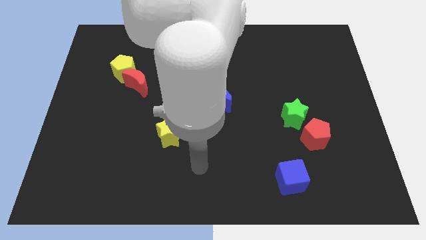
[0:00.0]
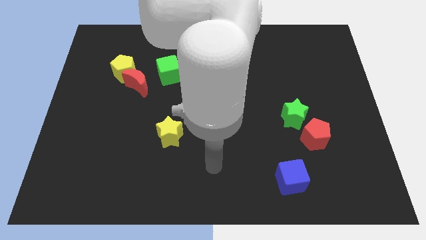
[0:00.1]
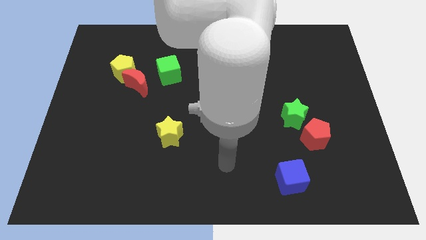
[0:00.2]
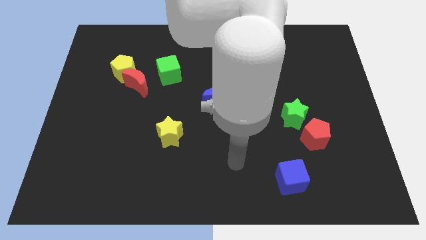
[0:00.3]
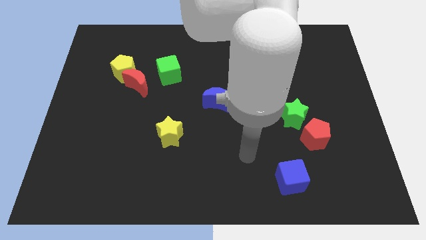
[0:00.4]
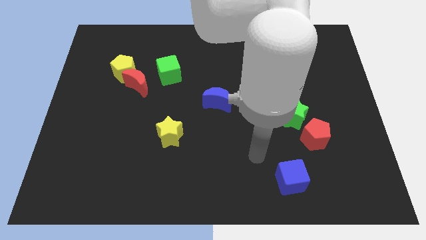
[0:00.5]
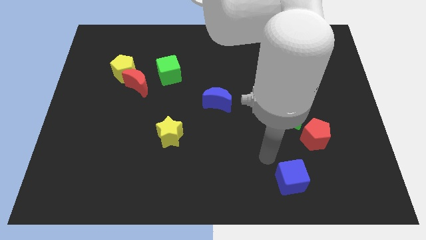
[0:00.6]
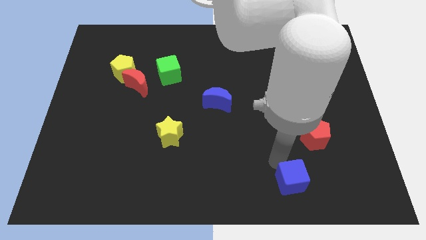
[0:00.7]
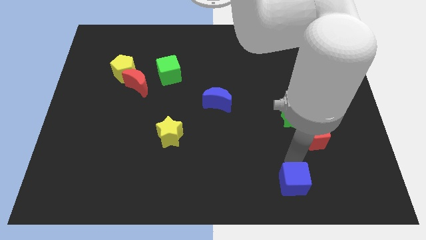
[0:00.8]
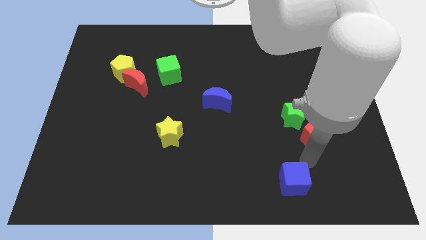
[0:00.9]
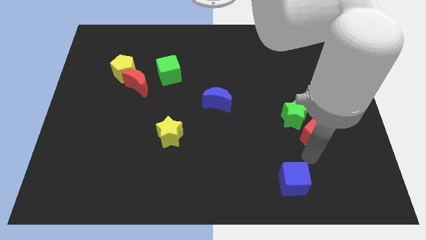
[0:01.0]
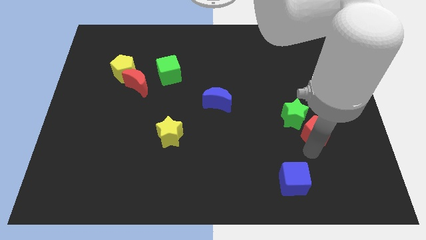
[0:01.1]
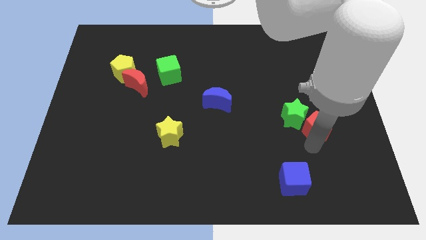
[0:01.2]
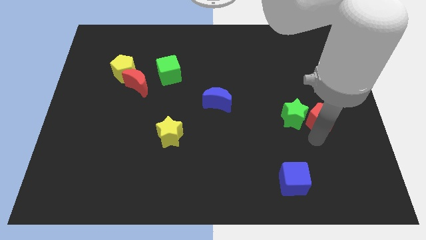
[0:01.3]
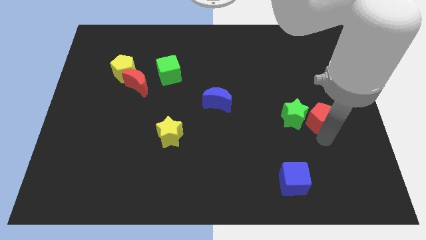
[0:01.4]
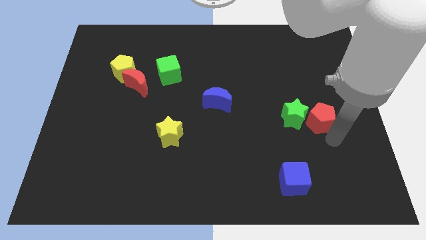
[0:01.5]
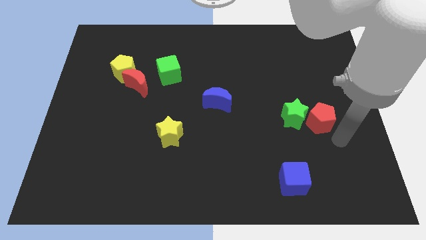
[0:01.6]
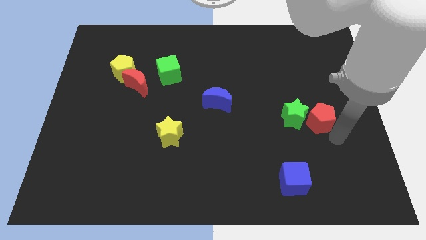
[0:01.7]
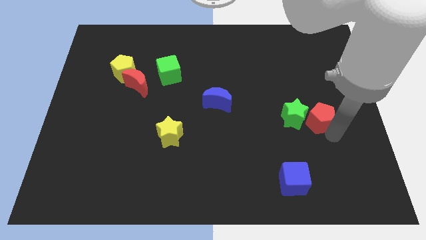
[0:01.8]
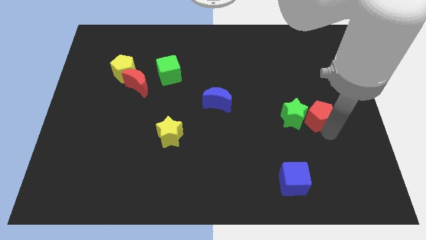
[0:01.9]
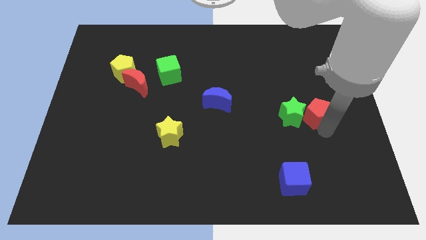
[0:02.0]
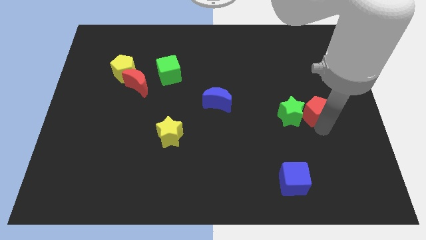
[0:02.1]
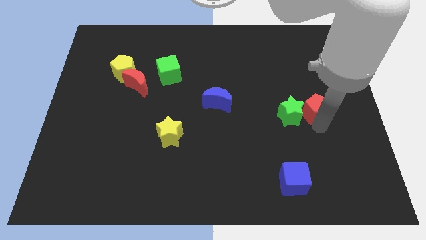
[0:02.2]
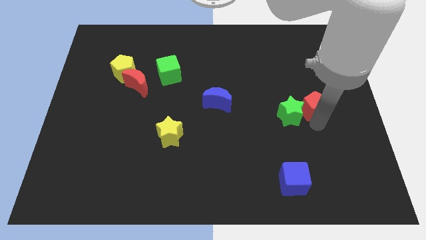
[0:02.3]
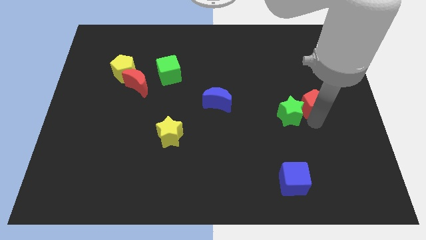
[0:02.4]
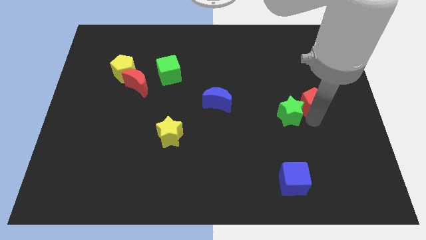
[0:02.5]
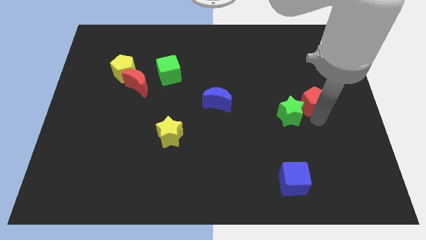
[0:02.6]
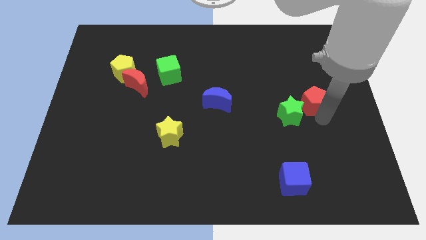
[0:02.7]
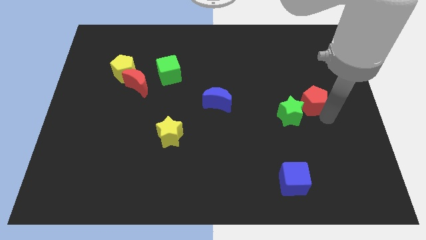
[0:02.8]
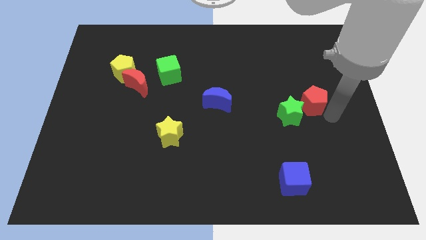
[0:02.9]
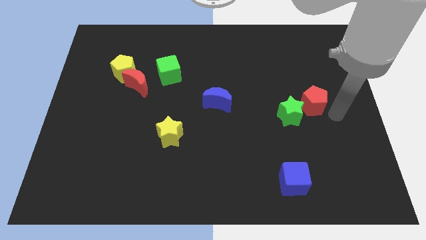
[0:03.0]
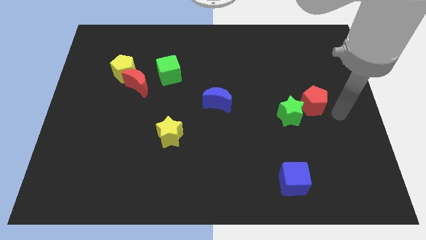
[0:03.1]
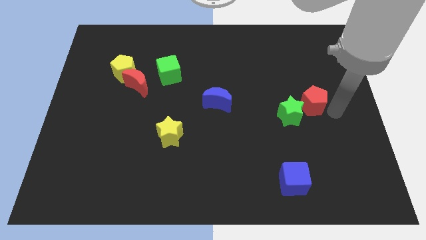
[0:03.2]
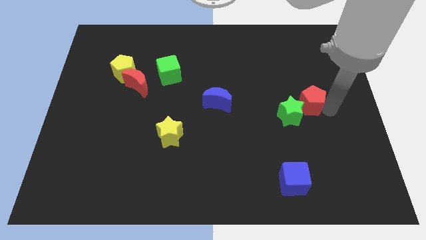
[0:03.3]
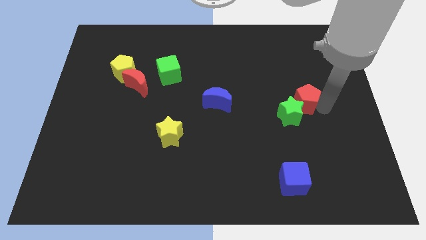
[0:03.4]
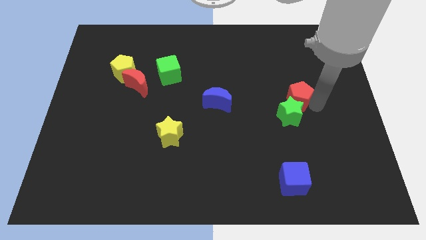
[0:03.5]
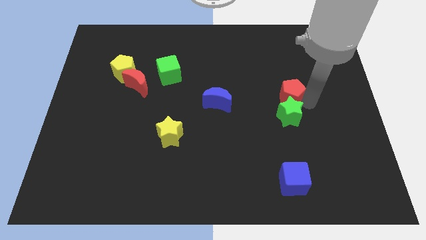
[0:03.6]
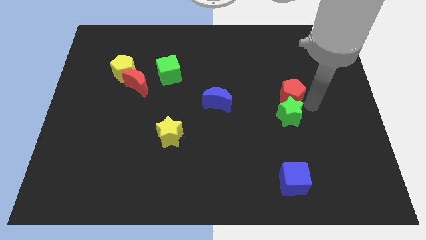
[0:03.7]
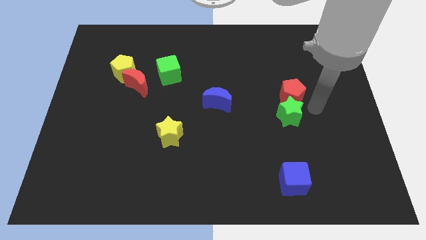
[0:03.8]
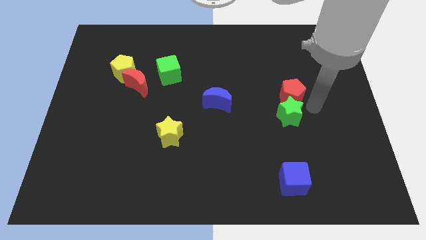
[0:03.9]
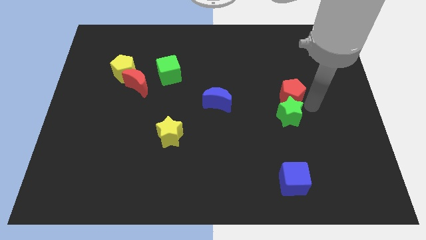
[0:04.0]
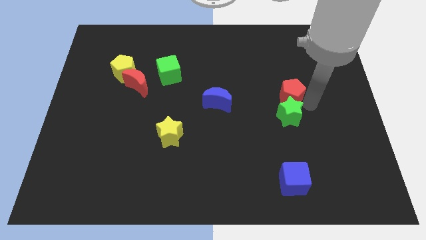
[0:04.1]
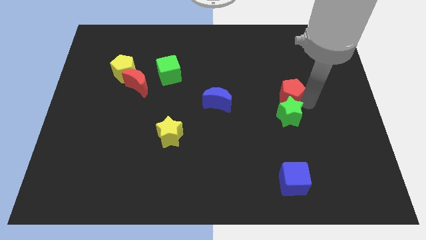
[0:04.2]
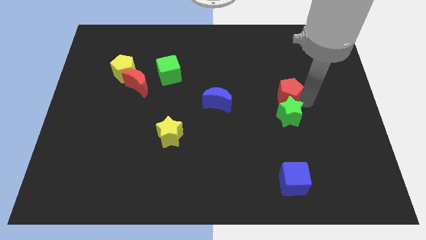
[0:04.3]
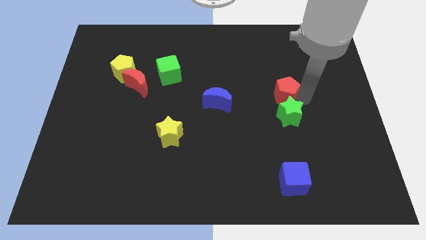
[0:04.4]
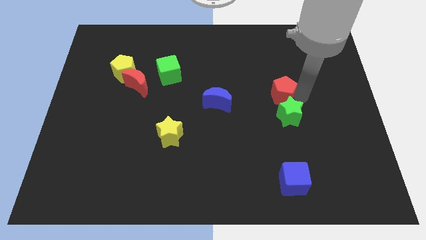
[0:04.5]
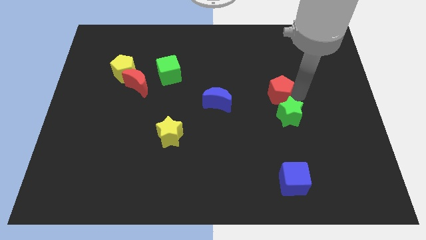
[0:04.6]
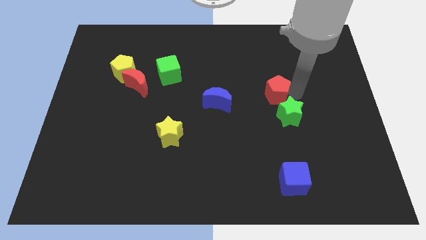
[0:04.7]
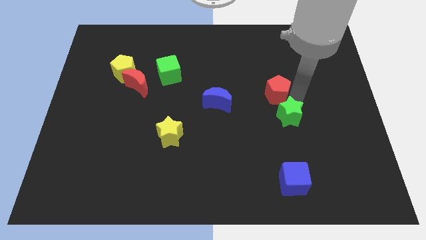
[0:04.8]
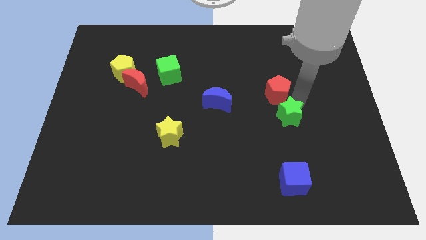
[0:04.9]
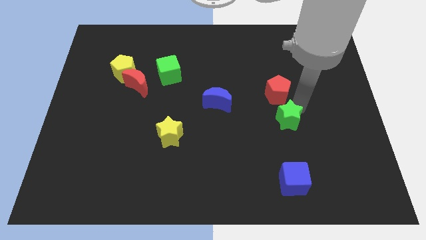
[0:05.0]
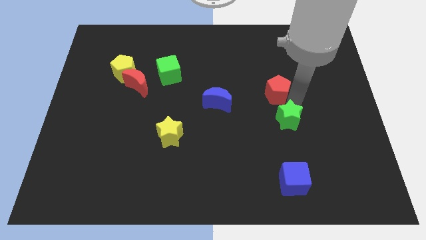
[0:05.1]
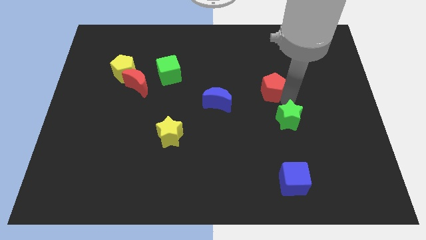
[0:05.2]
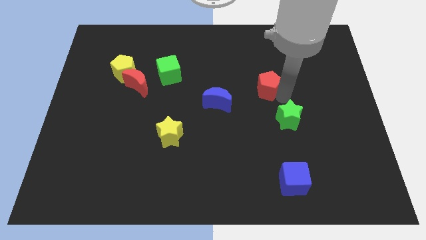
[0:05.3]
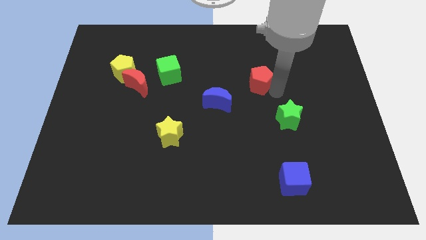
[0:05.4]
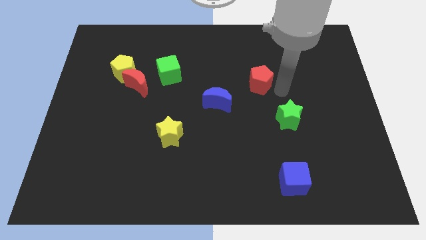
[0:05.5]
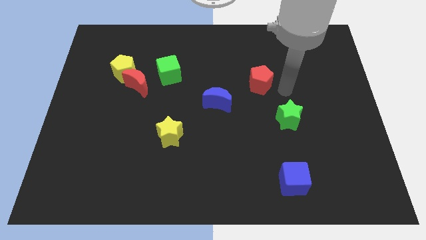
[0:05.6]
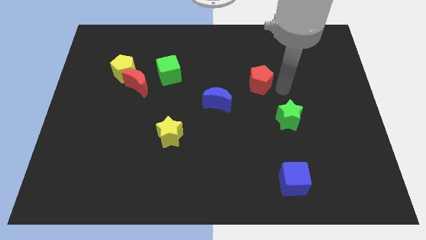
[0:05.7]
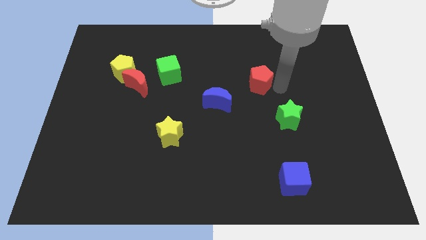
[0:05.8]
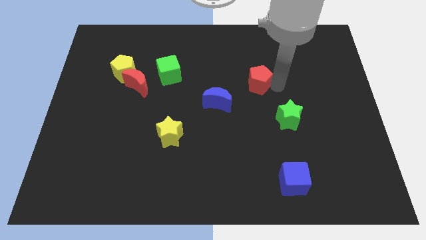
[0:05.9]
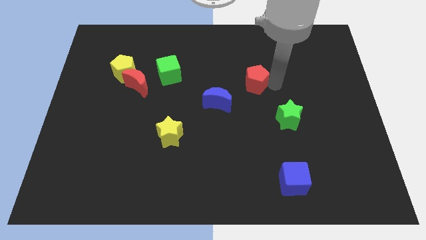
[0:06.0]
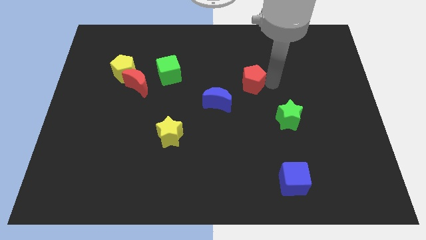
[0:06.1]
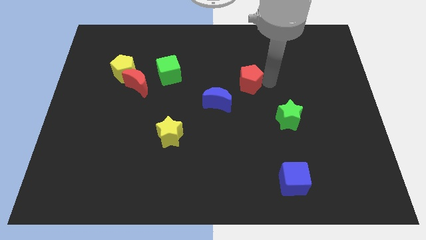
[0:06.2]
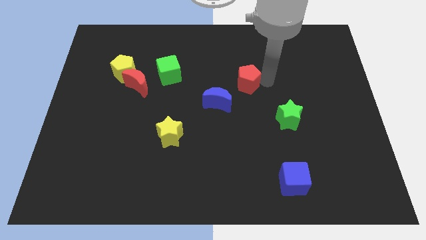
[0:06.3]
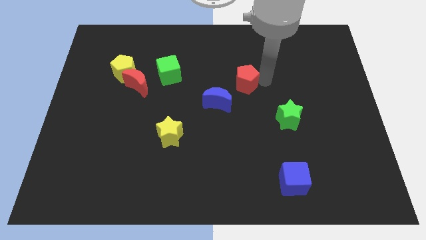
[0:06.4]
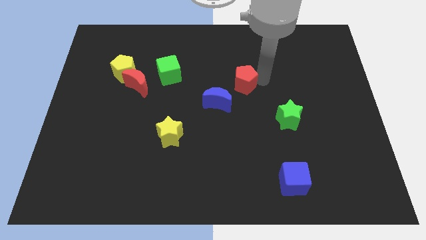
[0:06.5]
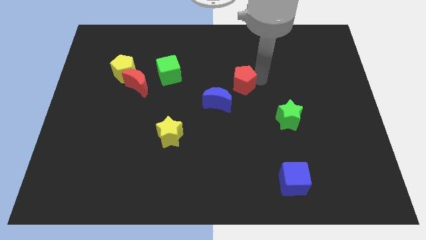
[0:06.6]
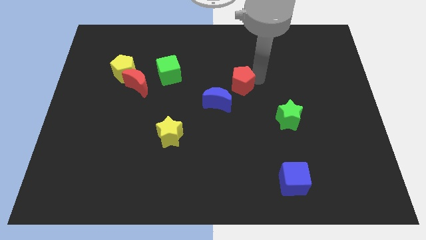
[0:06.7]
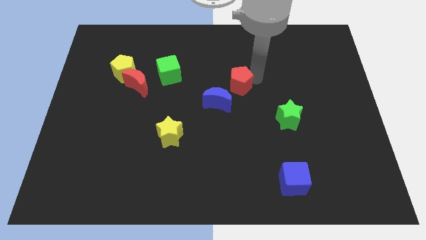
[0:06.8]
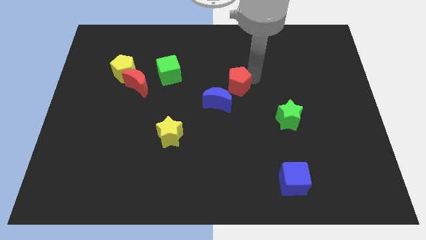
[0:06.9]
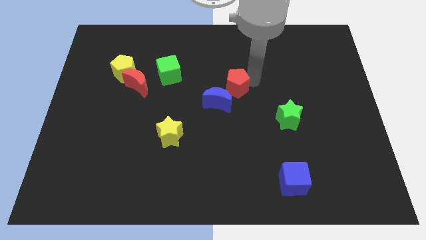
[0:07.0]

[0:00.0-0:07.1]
put the red pentagon to the top of the blue moon
